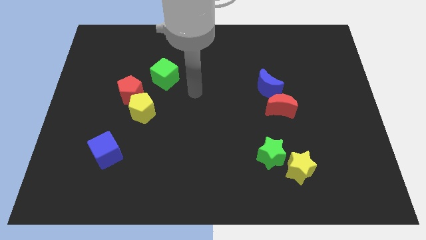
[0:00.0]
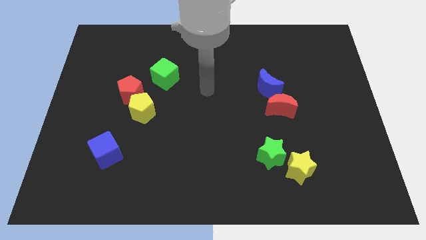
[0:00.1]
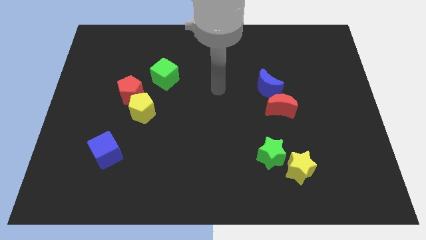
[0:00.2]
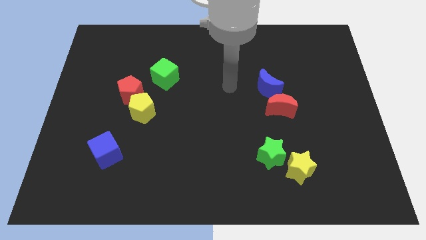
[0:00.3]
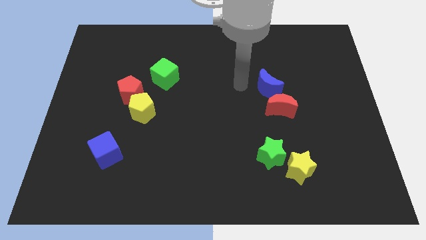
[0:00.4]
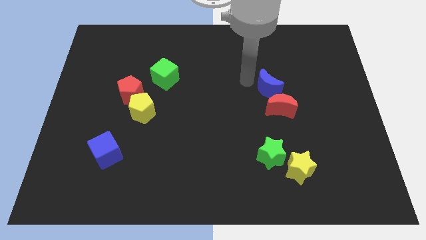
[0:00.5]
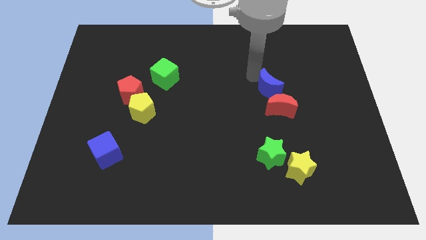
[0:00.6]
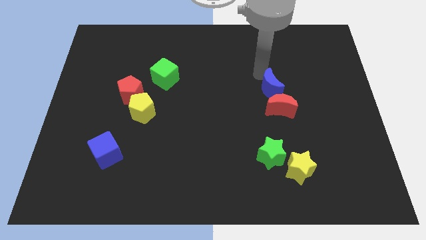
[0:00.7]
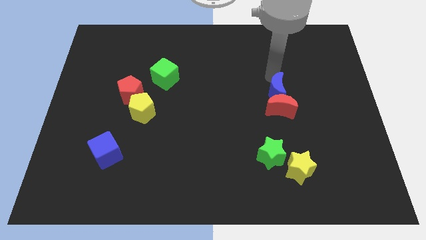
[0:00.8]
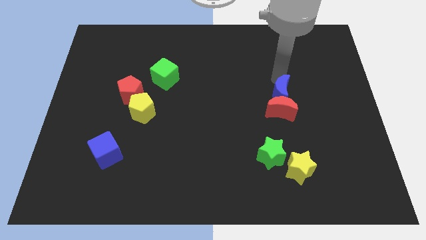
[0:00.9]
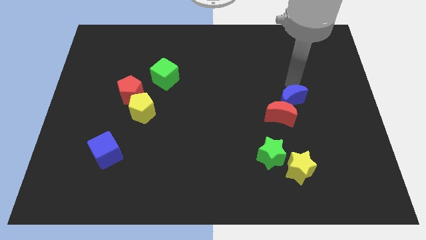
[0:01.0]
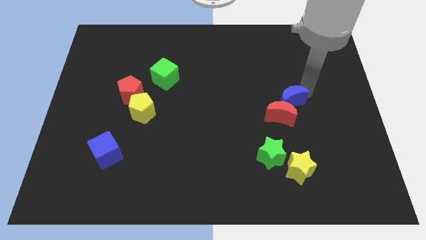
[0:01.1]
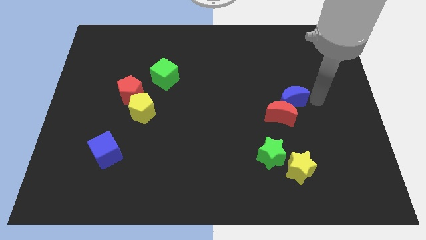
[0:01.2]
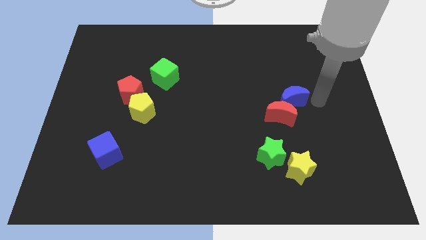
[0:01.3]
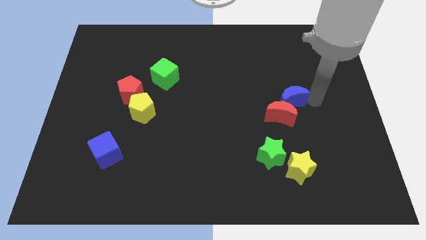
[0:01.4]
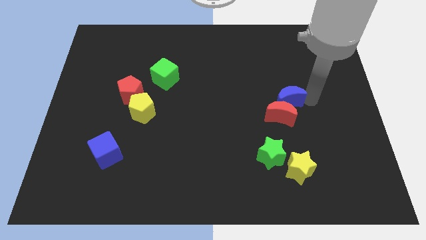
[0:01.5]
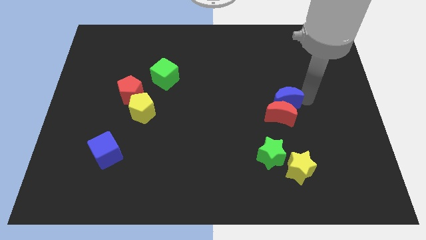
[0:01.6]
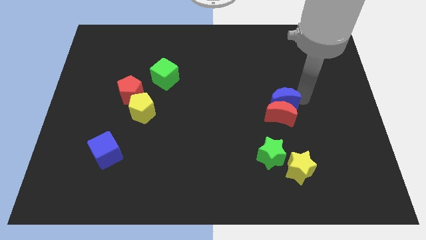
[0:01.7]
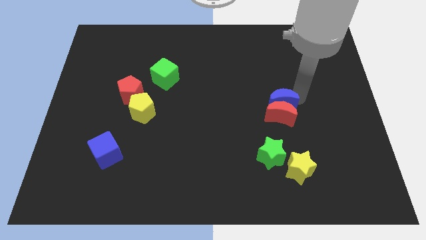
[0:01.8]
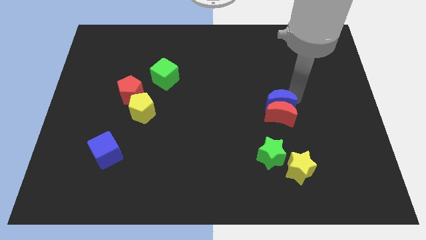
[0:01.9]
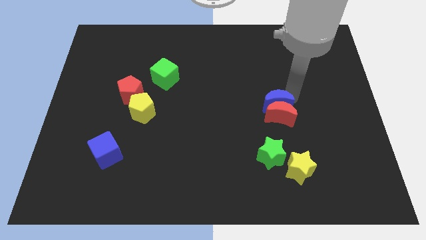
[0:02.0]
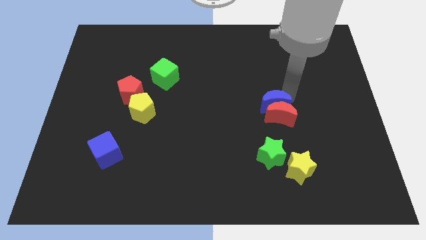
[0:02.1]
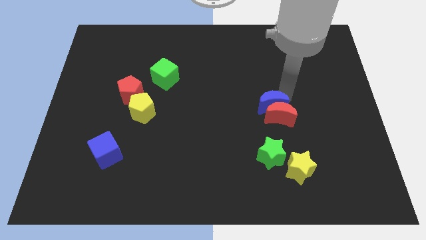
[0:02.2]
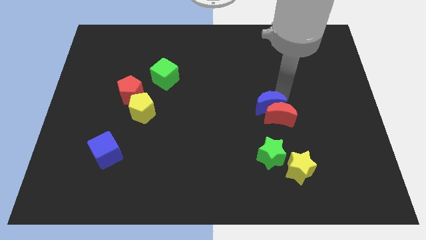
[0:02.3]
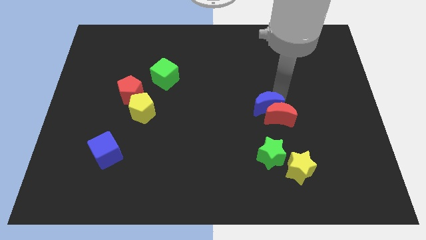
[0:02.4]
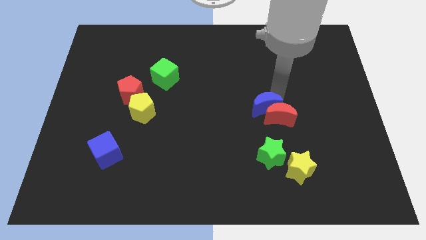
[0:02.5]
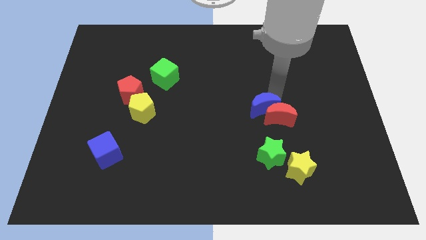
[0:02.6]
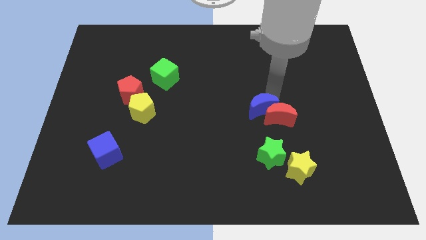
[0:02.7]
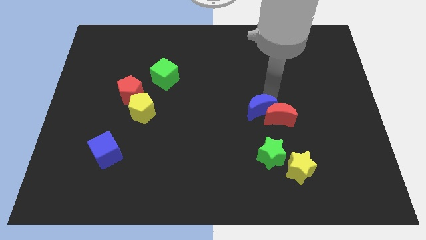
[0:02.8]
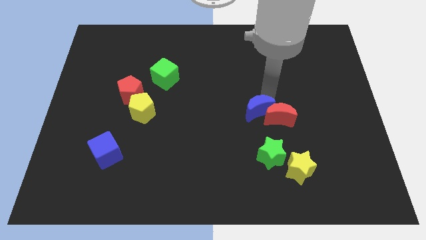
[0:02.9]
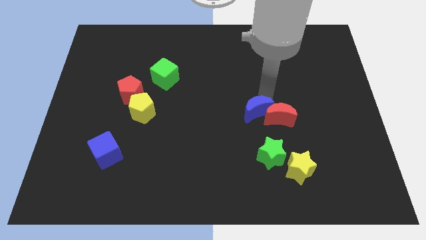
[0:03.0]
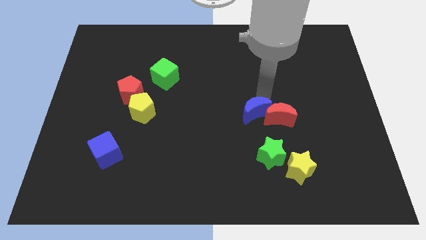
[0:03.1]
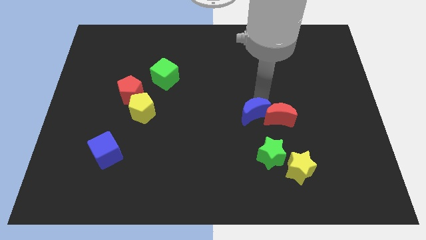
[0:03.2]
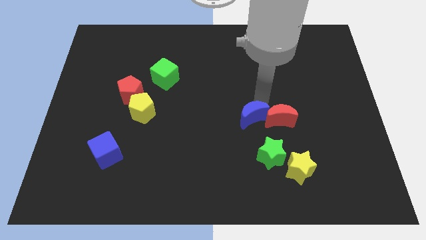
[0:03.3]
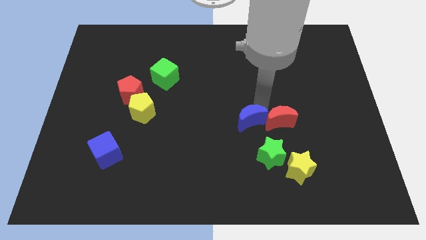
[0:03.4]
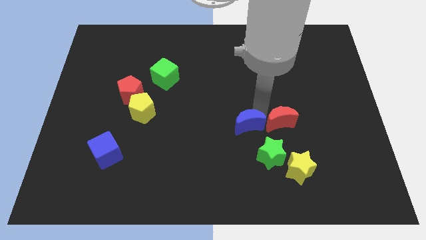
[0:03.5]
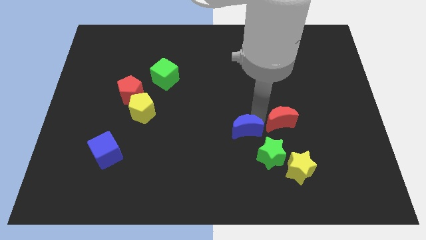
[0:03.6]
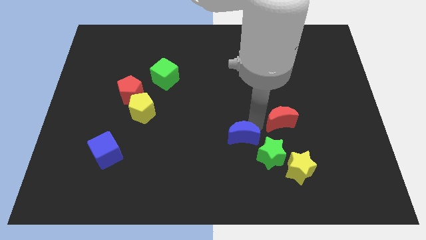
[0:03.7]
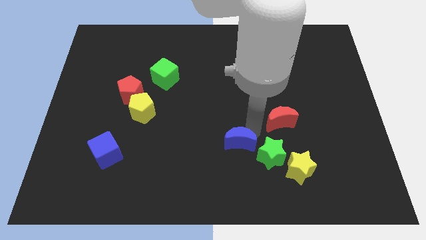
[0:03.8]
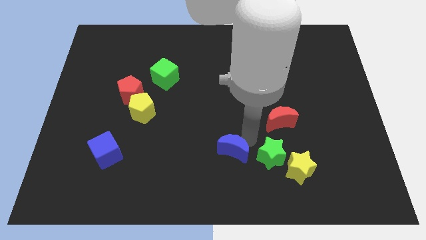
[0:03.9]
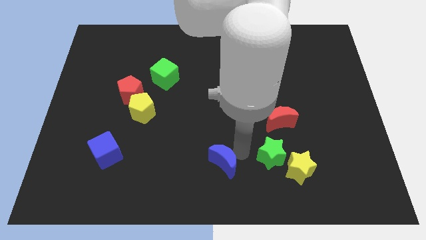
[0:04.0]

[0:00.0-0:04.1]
slide the blue moon diagonally downwards and left

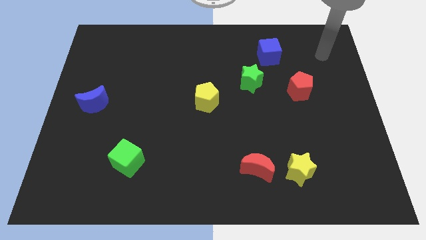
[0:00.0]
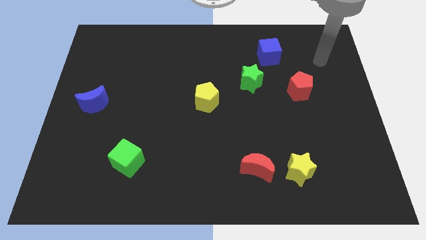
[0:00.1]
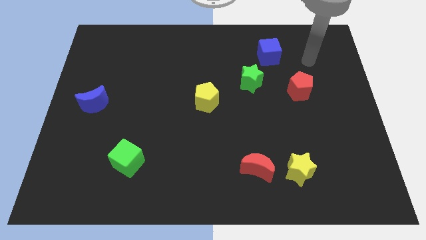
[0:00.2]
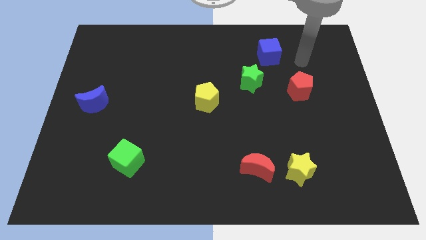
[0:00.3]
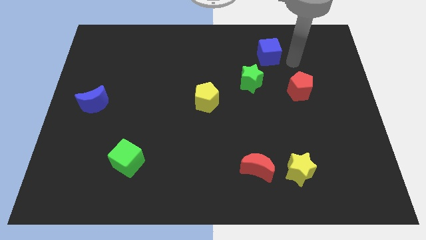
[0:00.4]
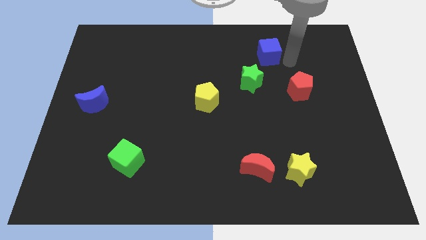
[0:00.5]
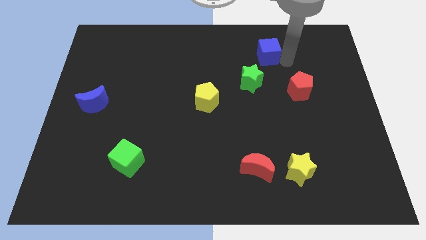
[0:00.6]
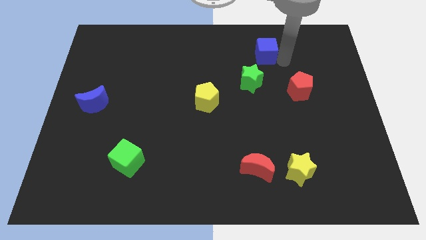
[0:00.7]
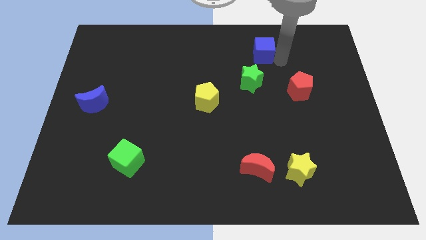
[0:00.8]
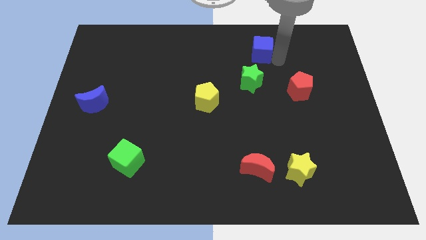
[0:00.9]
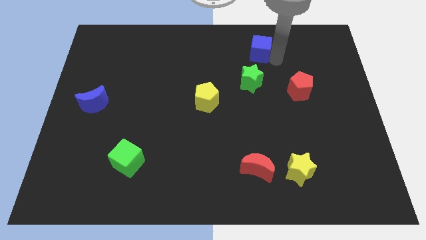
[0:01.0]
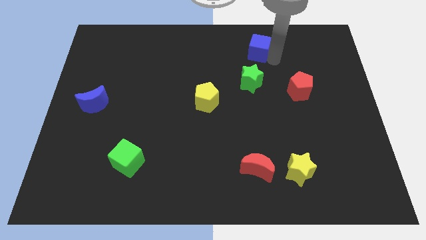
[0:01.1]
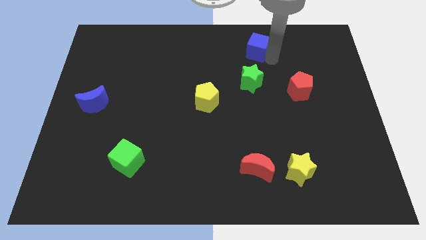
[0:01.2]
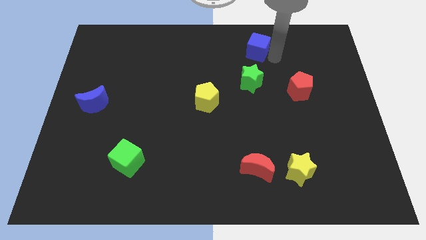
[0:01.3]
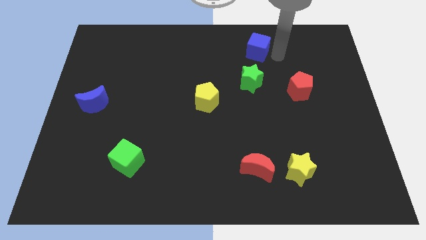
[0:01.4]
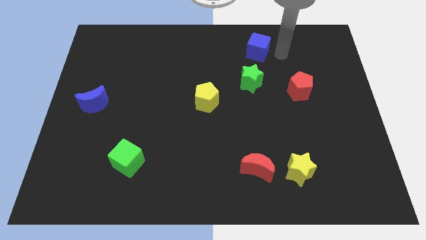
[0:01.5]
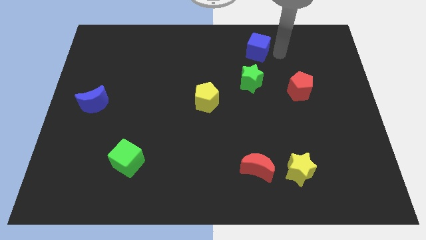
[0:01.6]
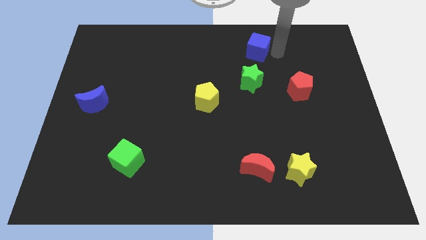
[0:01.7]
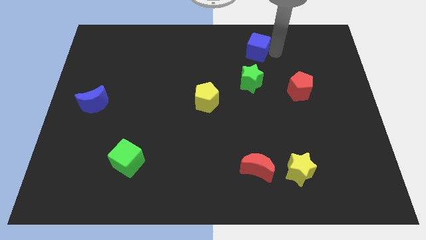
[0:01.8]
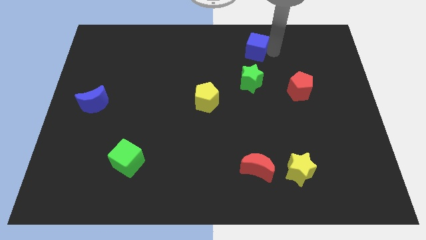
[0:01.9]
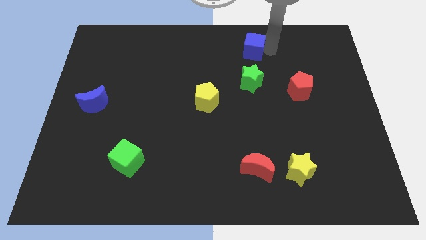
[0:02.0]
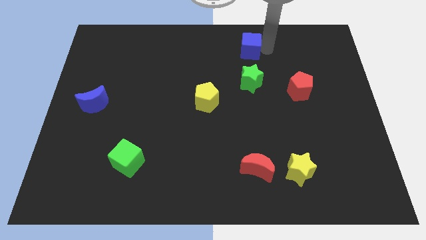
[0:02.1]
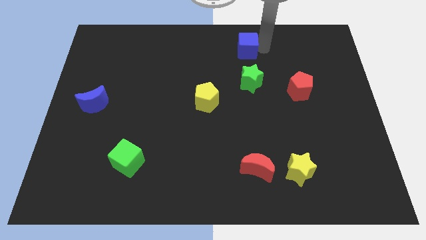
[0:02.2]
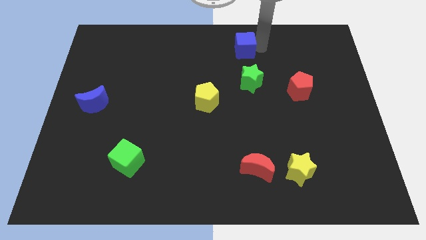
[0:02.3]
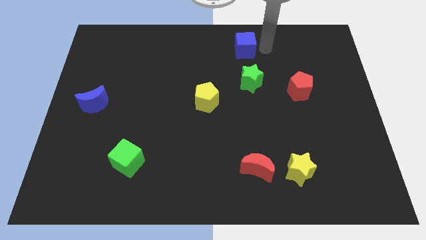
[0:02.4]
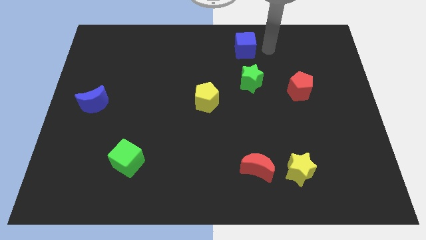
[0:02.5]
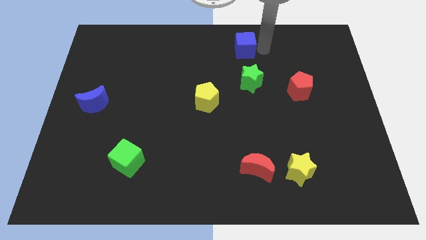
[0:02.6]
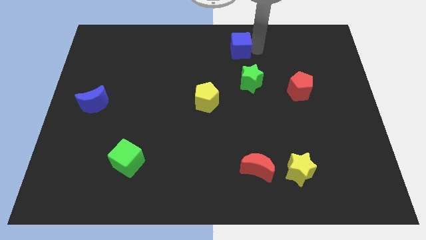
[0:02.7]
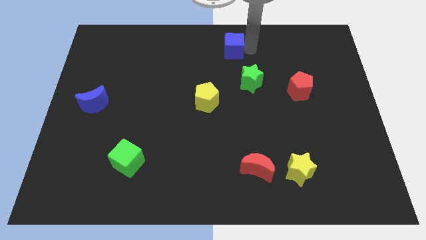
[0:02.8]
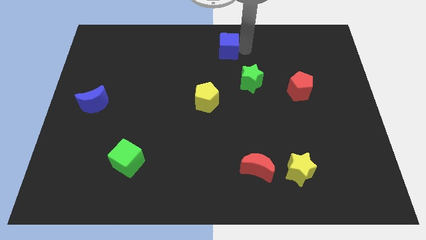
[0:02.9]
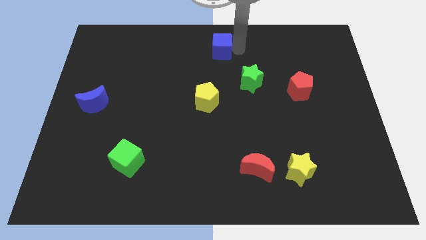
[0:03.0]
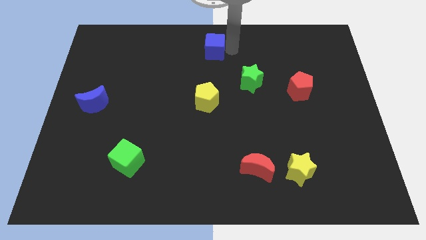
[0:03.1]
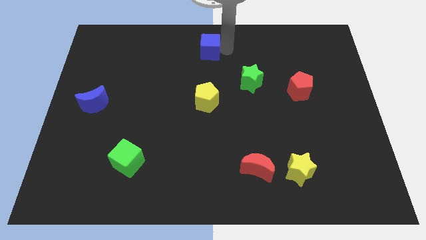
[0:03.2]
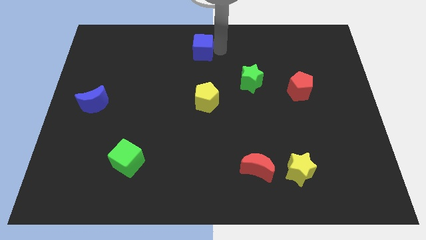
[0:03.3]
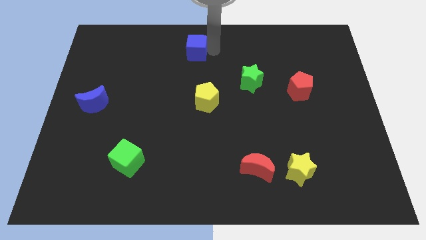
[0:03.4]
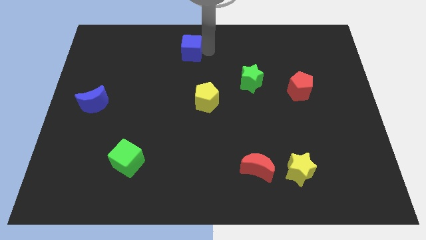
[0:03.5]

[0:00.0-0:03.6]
slide the blue cube left
